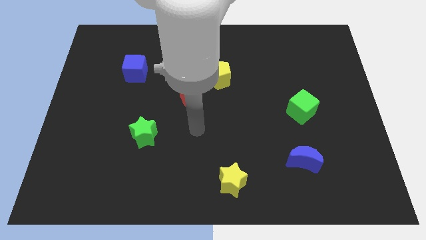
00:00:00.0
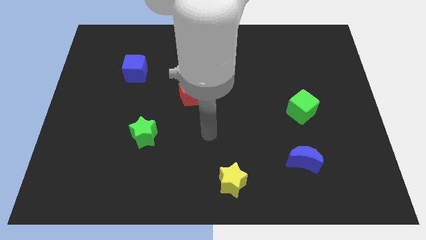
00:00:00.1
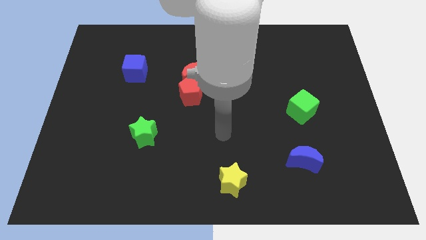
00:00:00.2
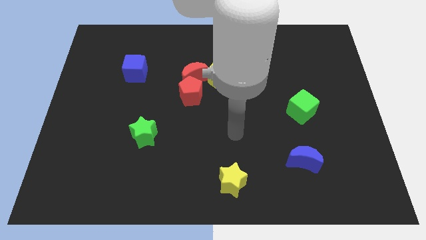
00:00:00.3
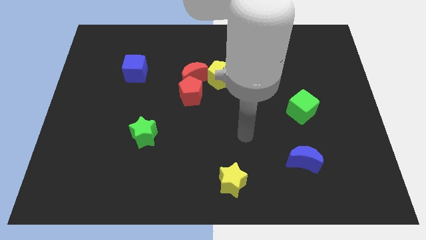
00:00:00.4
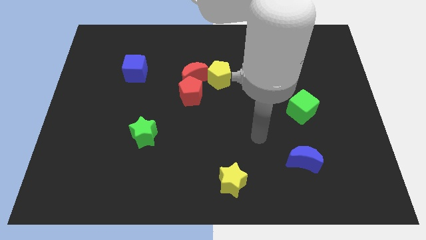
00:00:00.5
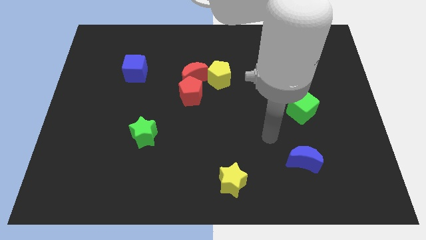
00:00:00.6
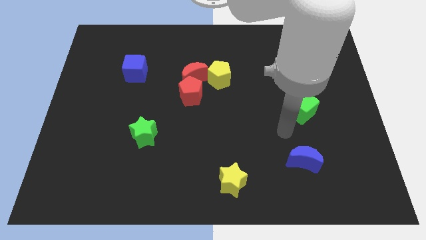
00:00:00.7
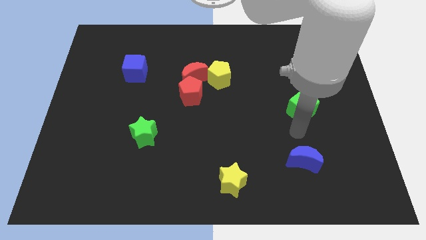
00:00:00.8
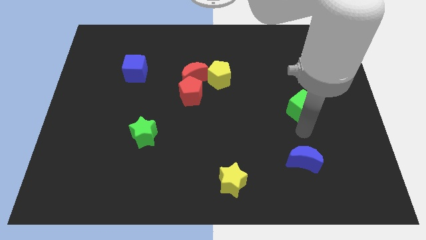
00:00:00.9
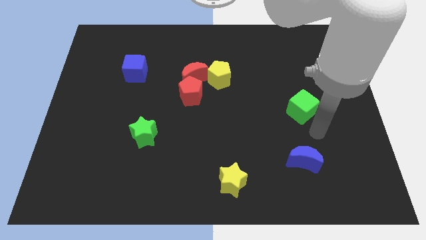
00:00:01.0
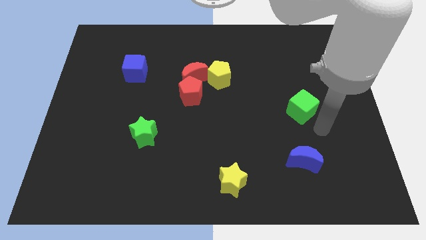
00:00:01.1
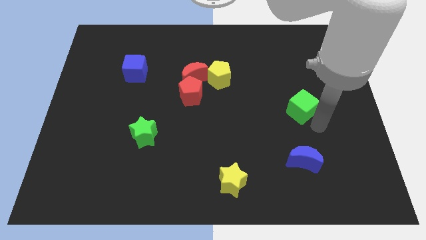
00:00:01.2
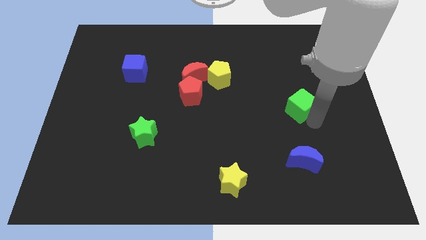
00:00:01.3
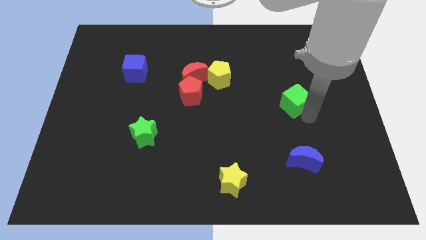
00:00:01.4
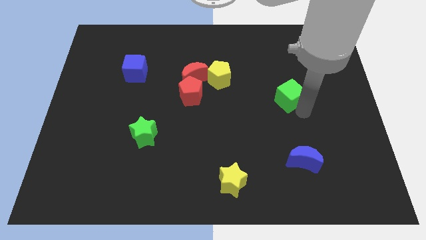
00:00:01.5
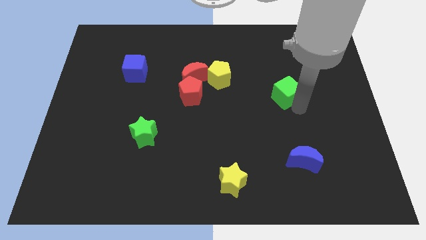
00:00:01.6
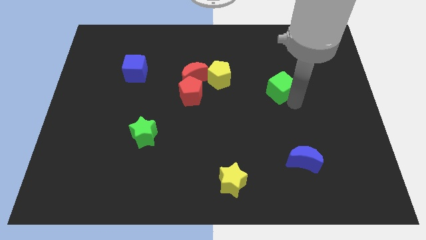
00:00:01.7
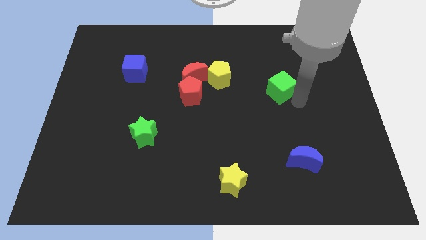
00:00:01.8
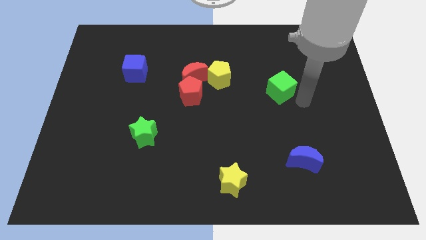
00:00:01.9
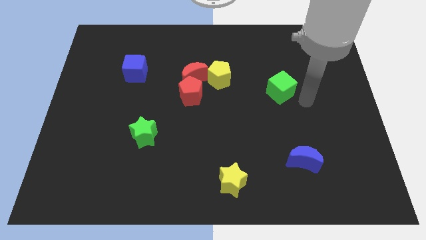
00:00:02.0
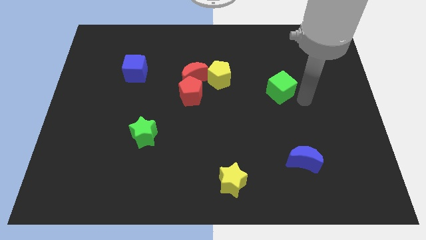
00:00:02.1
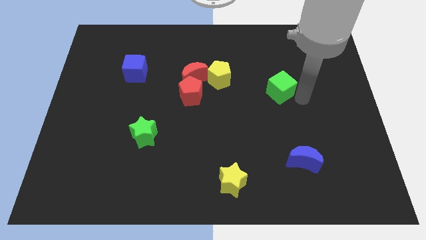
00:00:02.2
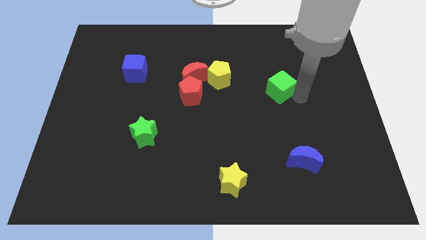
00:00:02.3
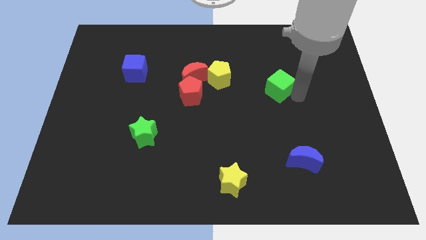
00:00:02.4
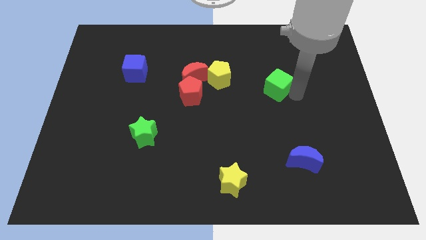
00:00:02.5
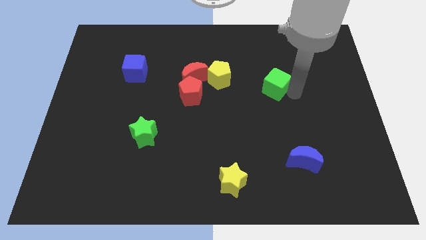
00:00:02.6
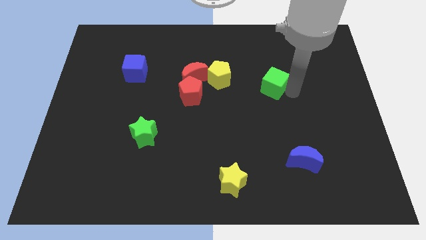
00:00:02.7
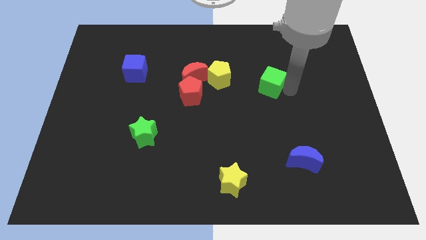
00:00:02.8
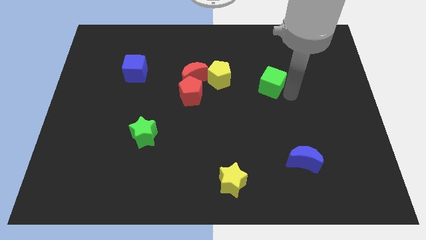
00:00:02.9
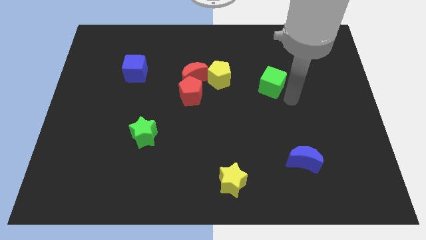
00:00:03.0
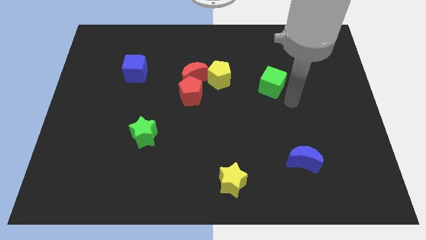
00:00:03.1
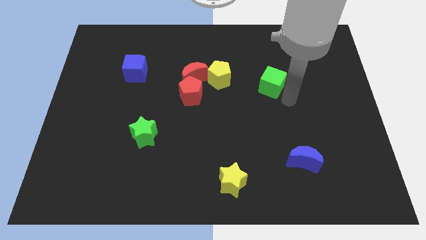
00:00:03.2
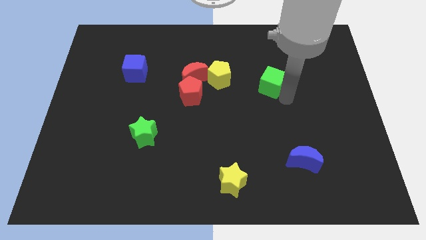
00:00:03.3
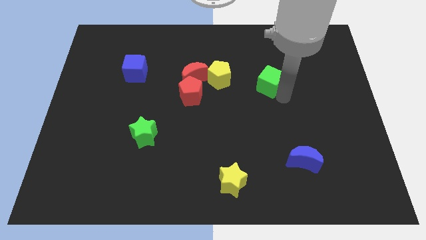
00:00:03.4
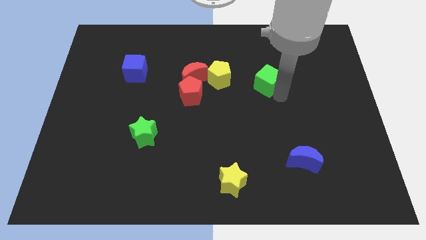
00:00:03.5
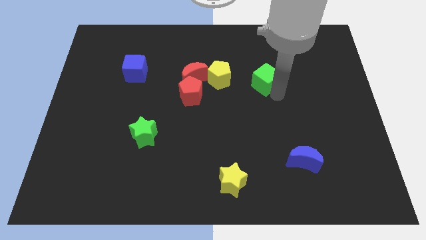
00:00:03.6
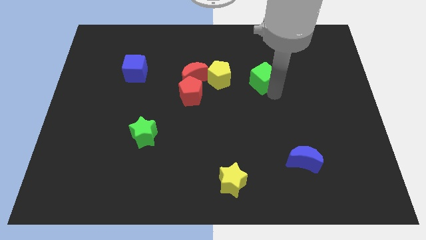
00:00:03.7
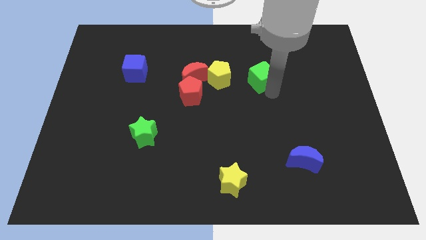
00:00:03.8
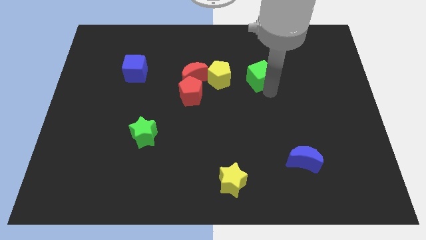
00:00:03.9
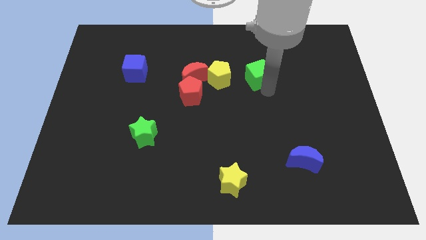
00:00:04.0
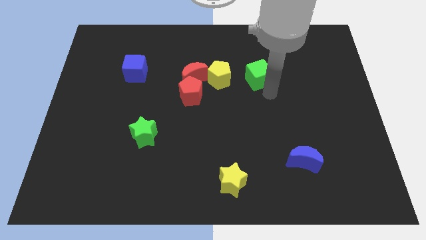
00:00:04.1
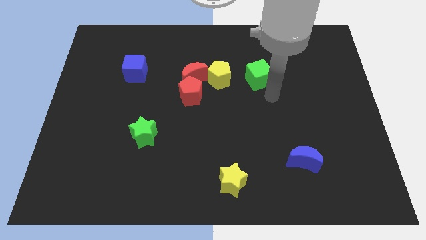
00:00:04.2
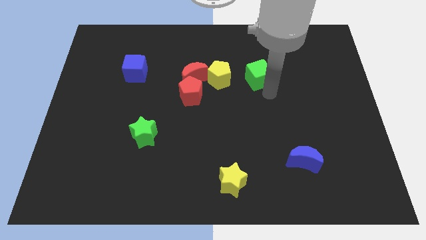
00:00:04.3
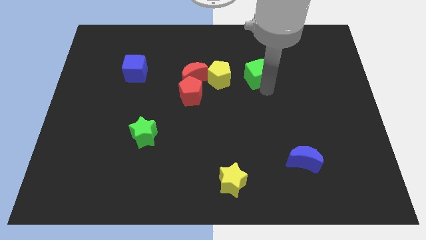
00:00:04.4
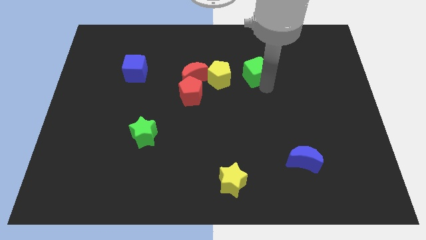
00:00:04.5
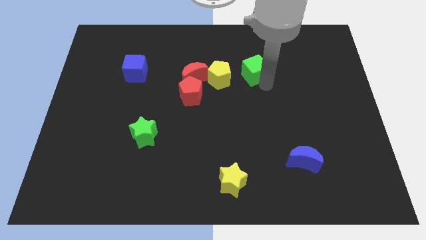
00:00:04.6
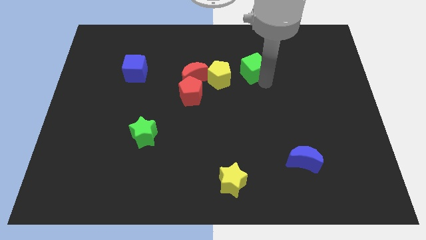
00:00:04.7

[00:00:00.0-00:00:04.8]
put the green cube diagonally up and to the right of the yellow pentagon

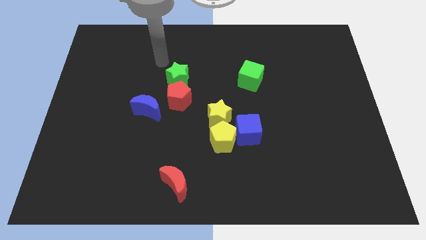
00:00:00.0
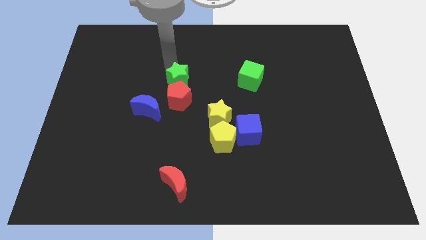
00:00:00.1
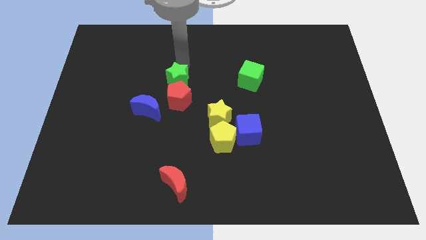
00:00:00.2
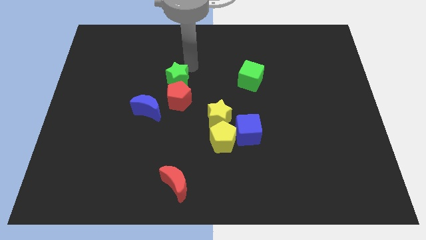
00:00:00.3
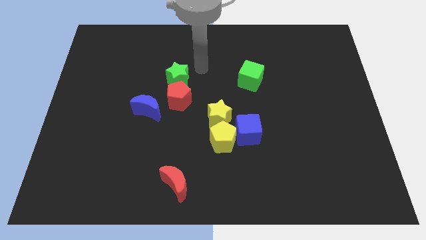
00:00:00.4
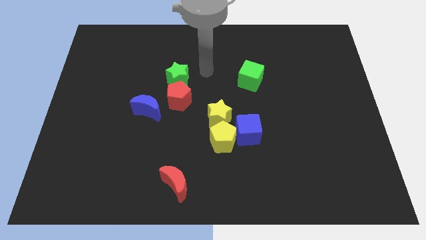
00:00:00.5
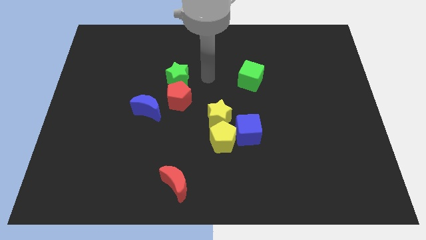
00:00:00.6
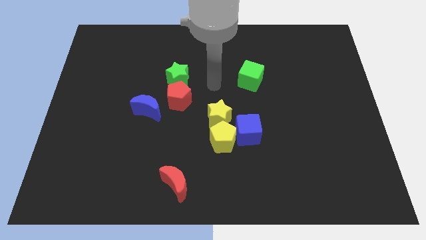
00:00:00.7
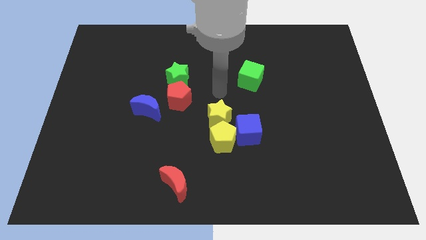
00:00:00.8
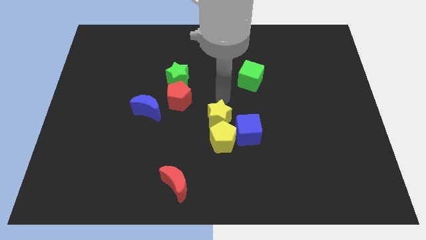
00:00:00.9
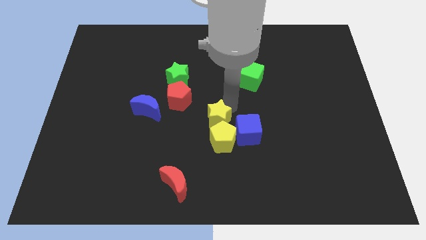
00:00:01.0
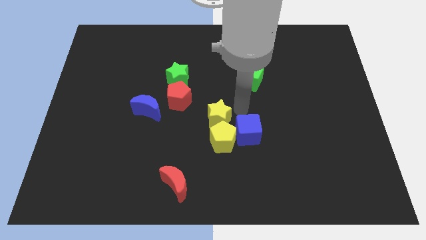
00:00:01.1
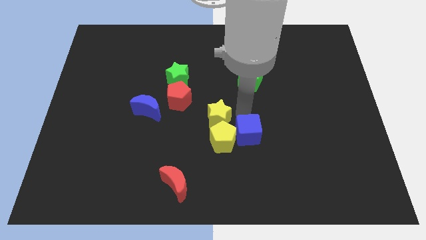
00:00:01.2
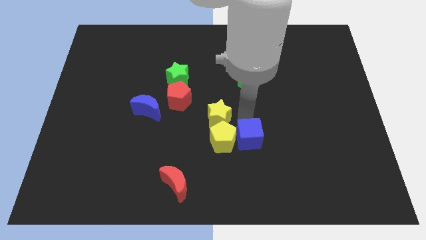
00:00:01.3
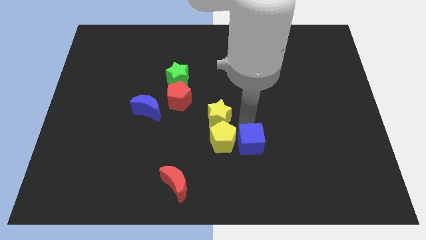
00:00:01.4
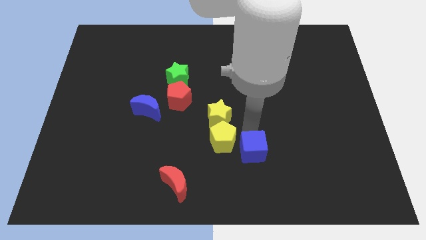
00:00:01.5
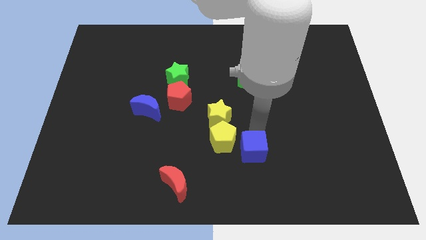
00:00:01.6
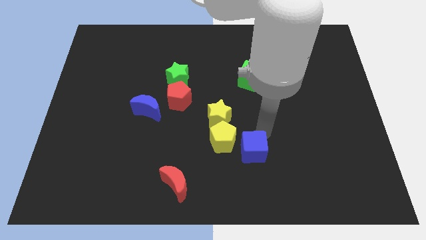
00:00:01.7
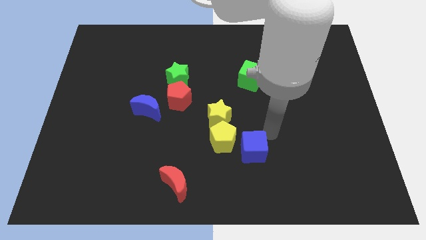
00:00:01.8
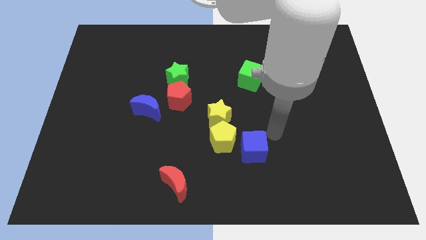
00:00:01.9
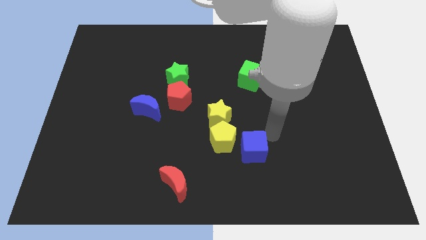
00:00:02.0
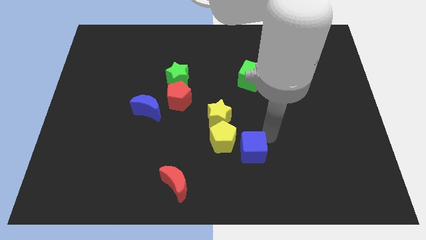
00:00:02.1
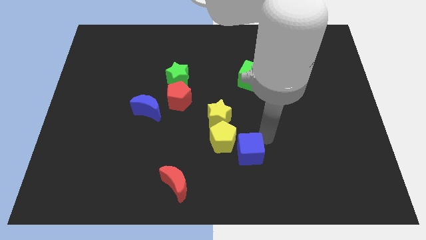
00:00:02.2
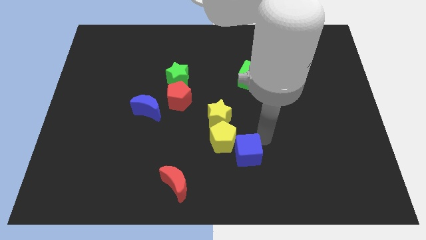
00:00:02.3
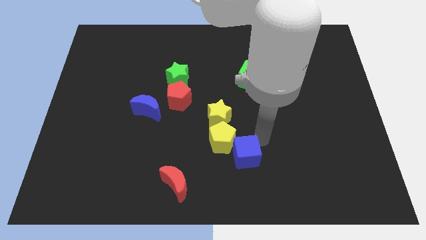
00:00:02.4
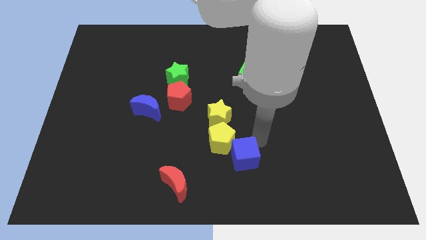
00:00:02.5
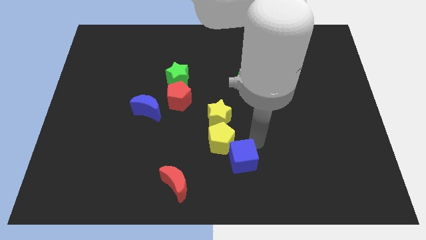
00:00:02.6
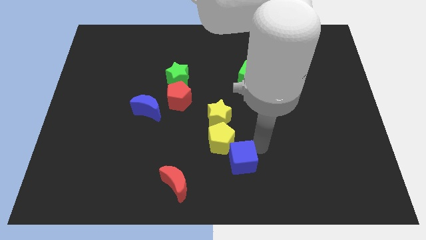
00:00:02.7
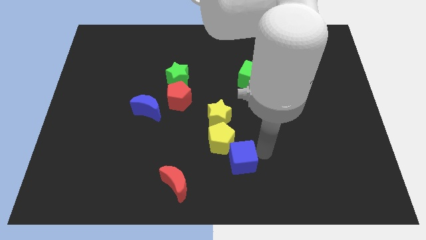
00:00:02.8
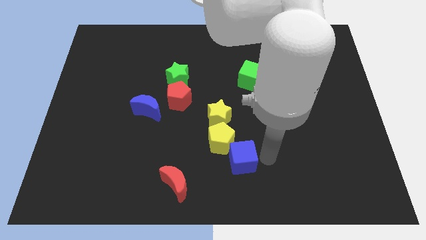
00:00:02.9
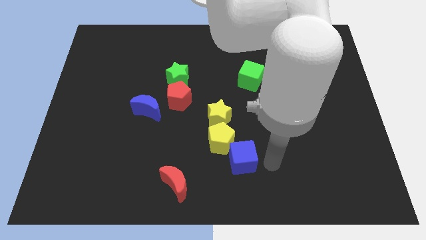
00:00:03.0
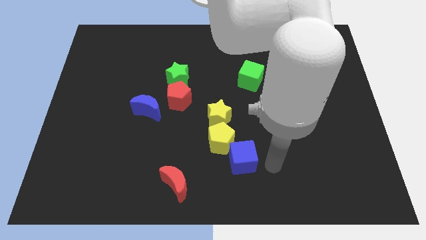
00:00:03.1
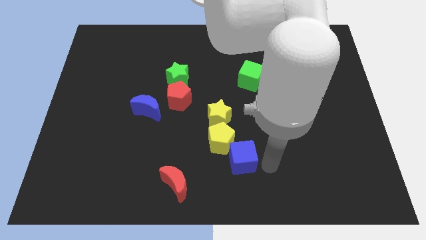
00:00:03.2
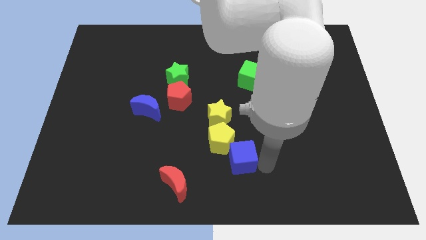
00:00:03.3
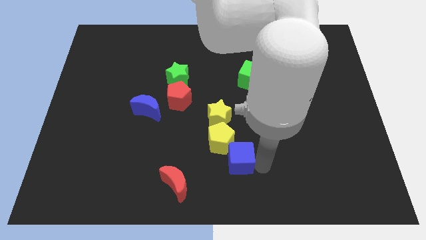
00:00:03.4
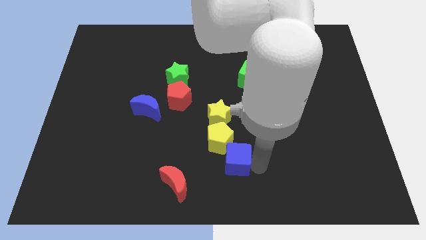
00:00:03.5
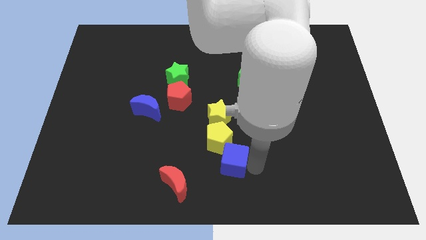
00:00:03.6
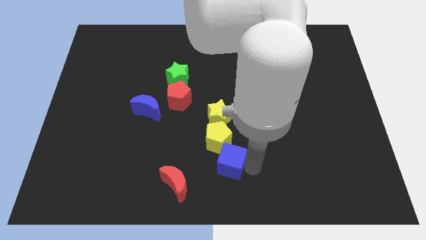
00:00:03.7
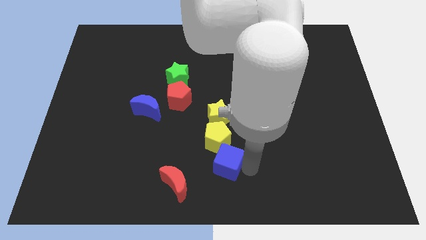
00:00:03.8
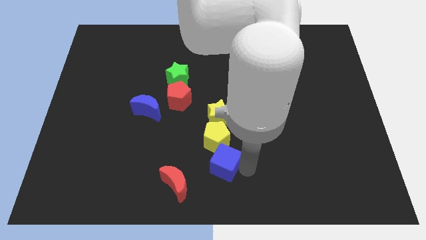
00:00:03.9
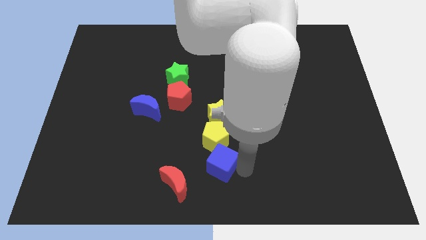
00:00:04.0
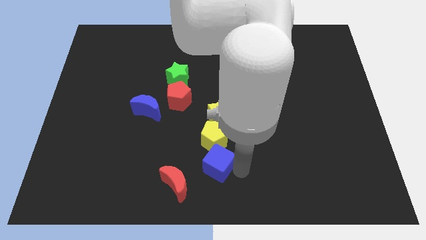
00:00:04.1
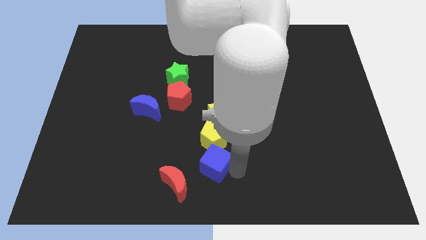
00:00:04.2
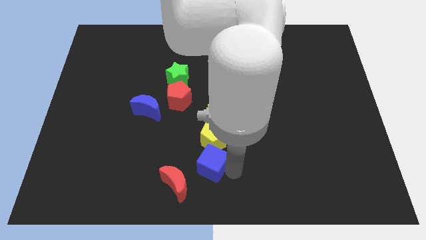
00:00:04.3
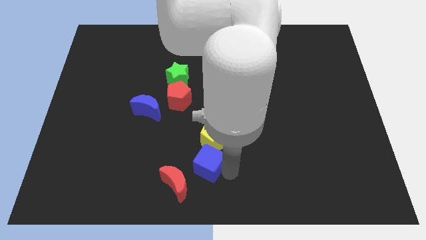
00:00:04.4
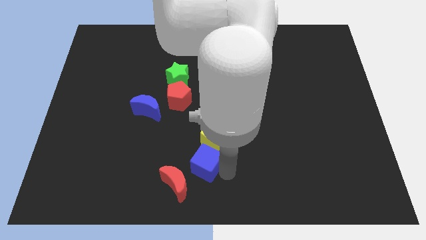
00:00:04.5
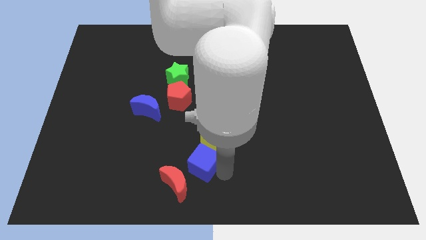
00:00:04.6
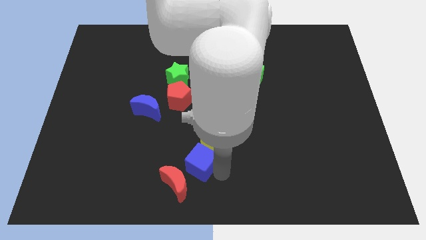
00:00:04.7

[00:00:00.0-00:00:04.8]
slide the blue cube to the top of the red moon
